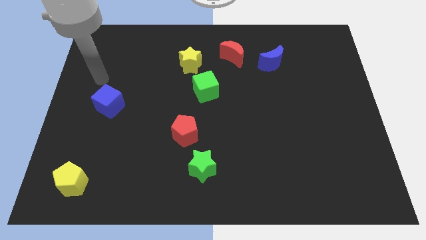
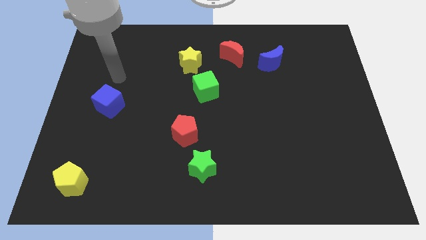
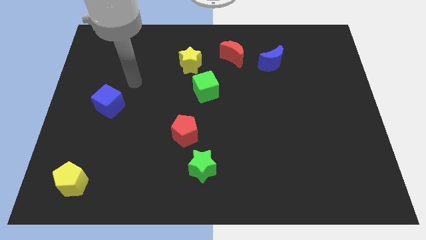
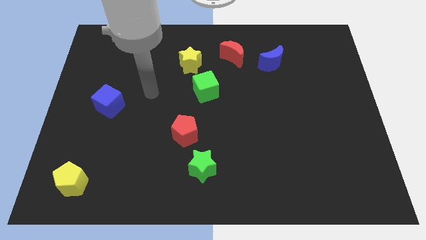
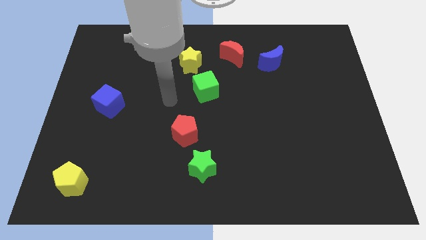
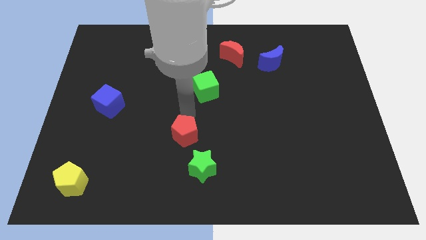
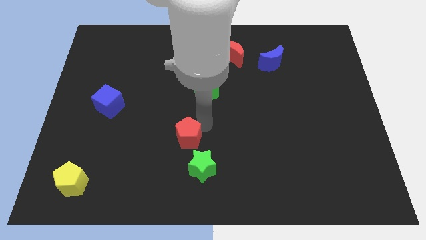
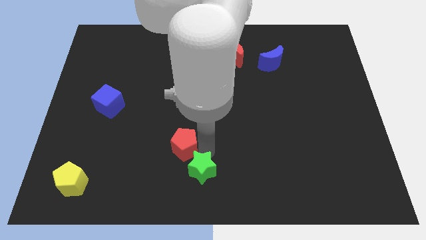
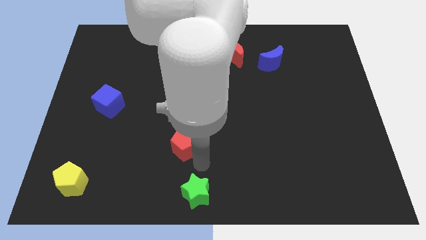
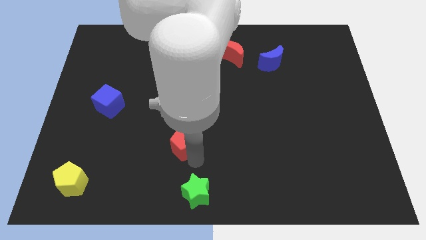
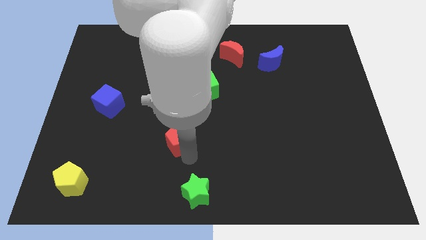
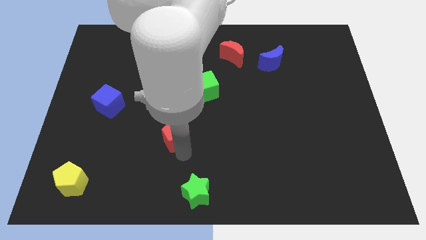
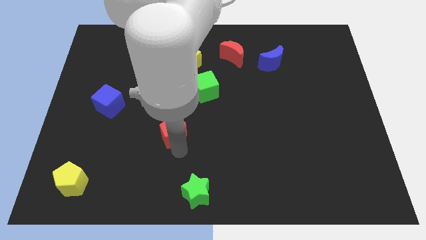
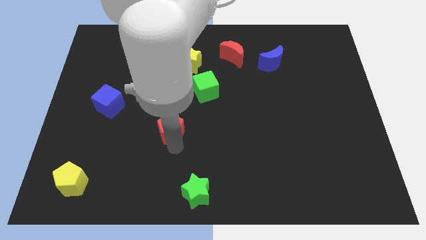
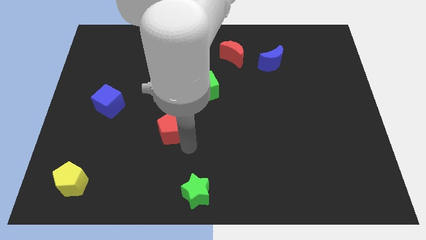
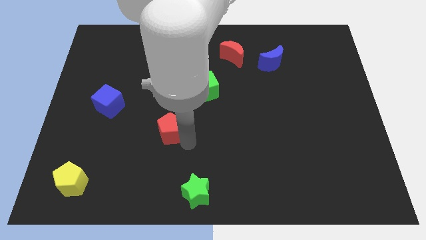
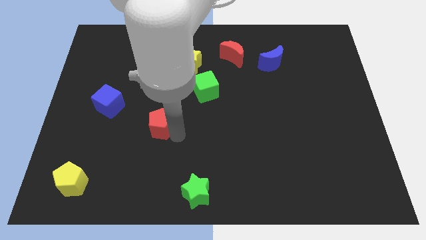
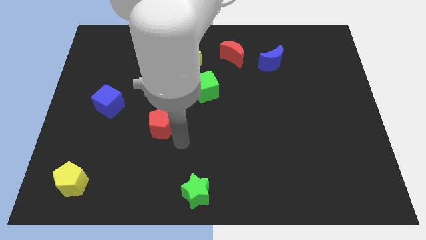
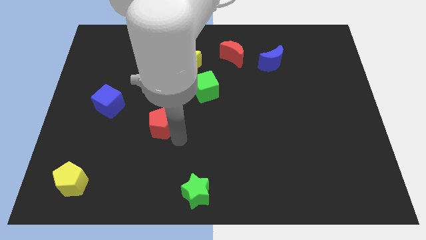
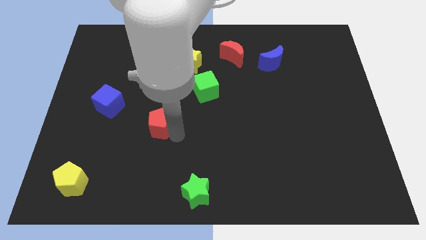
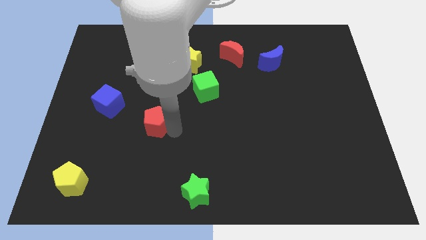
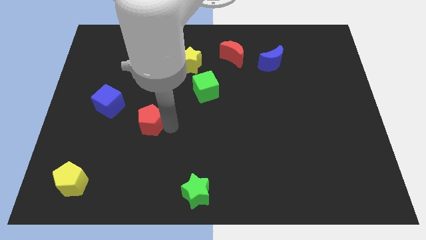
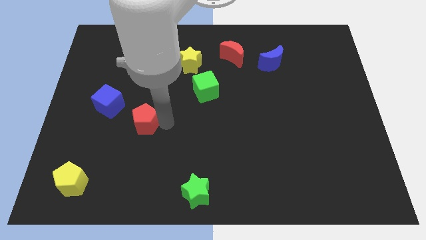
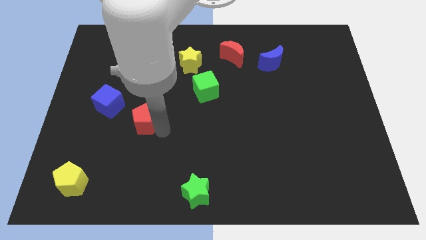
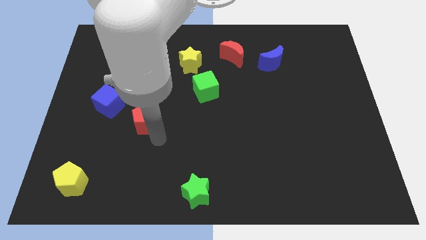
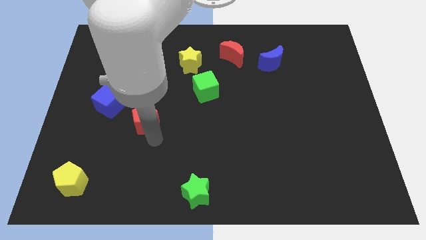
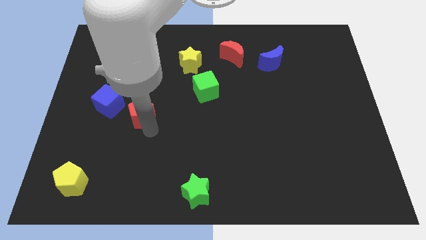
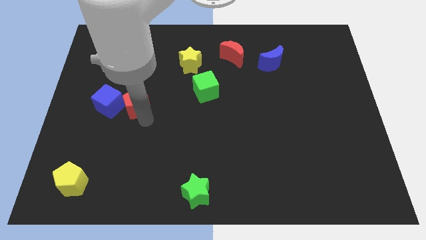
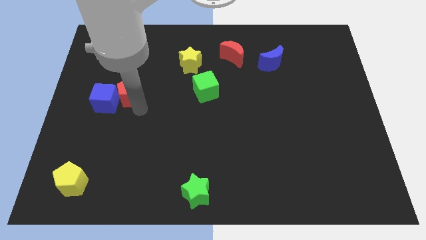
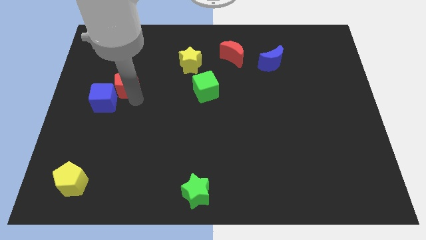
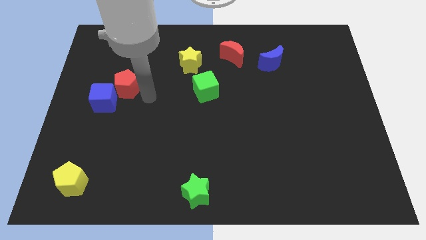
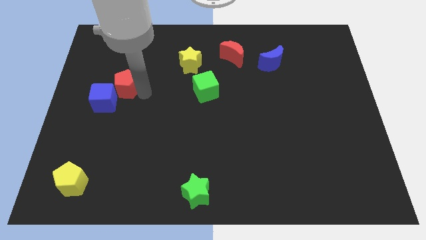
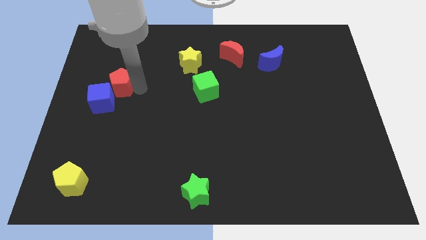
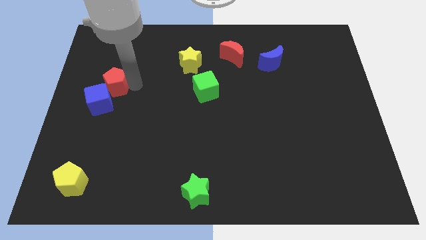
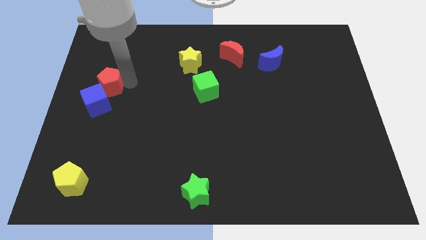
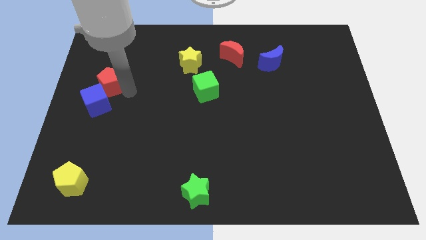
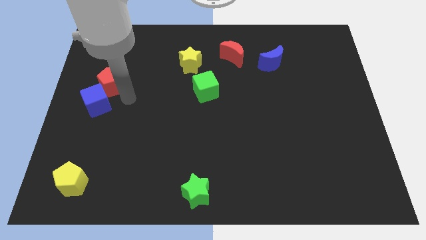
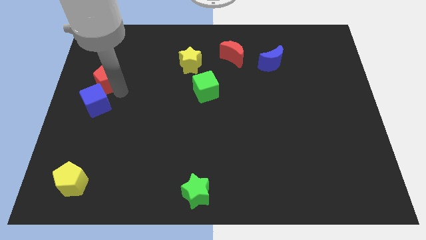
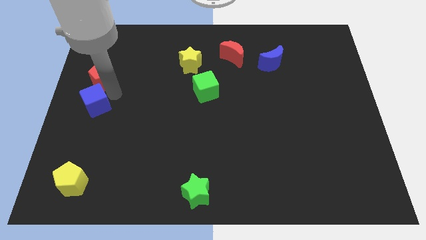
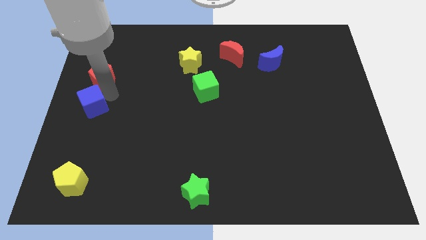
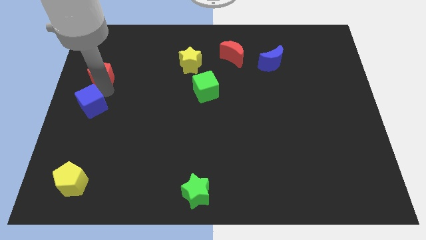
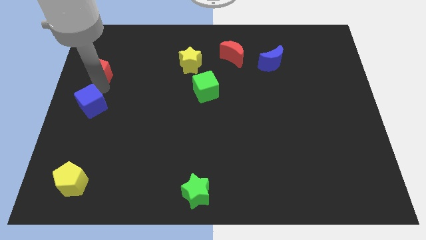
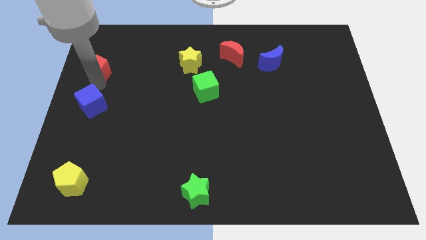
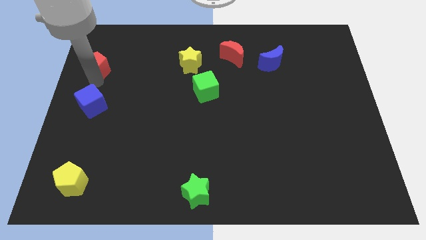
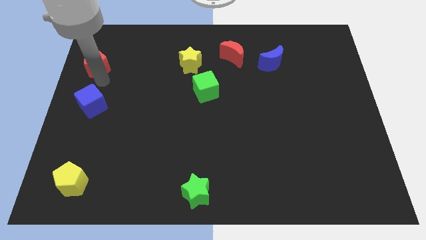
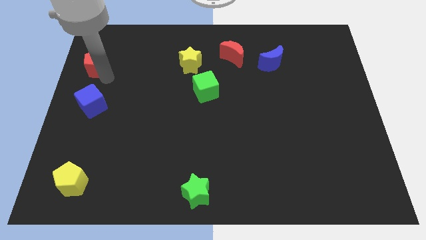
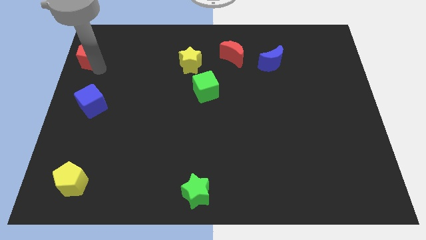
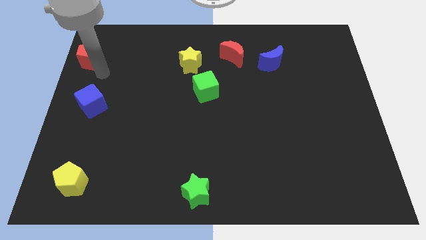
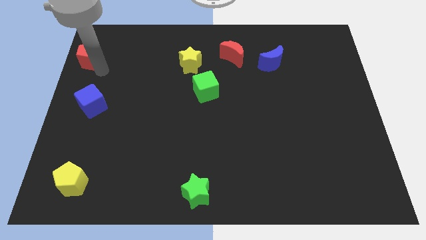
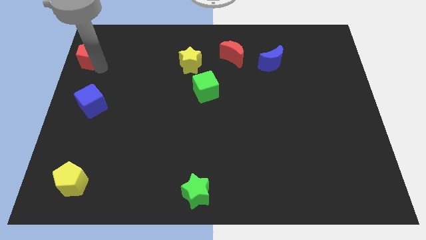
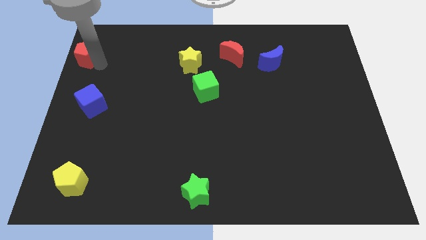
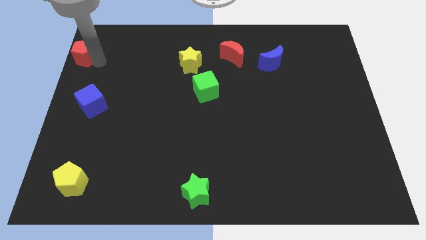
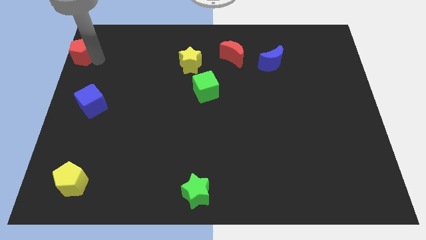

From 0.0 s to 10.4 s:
push the red pentagon to the top left corner

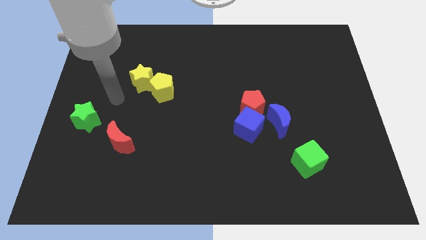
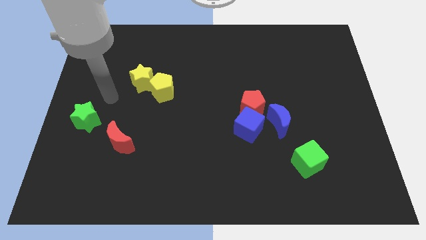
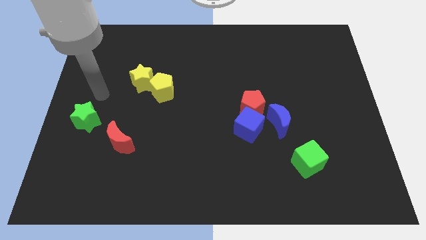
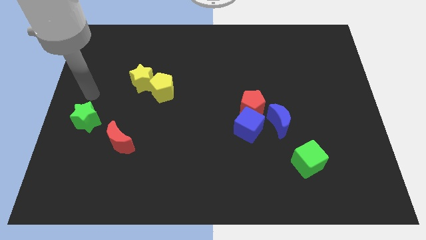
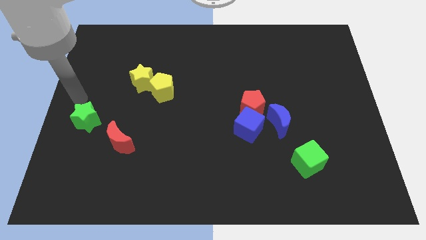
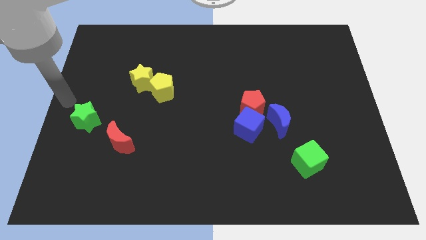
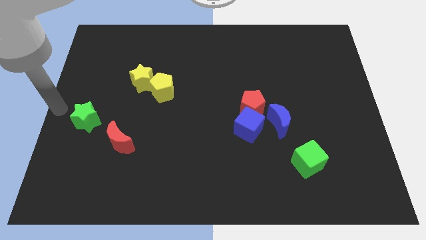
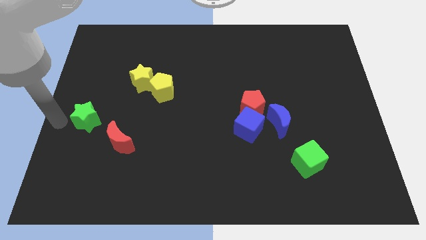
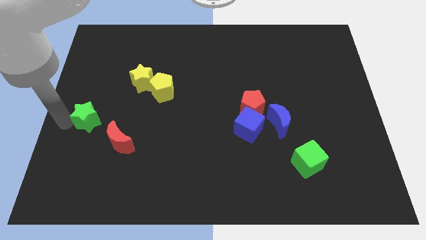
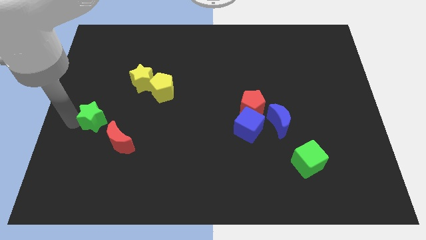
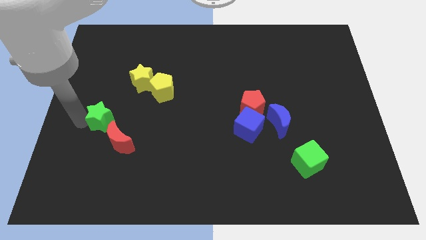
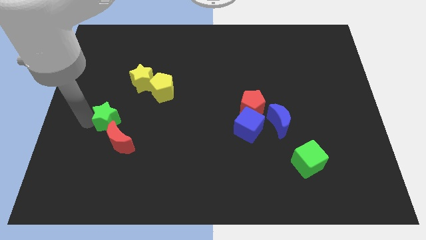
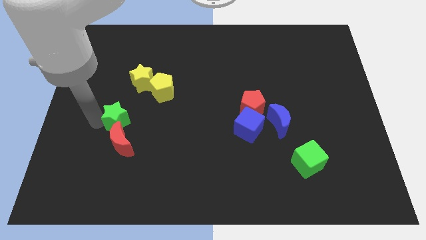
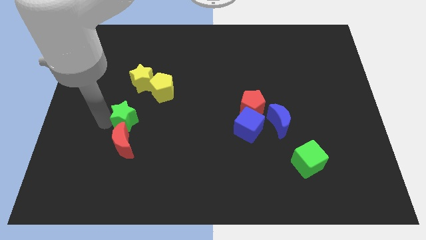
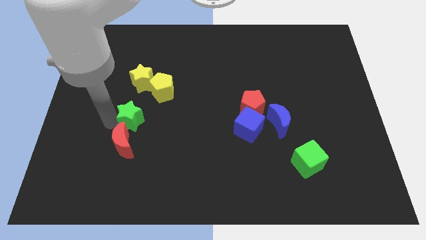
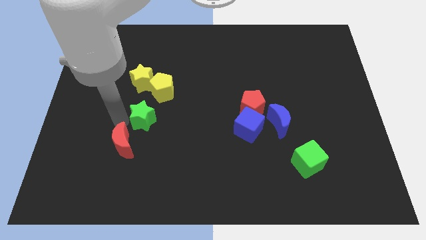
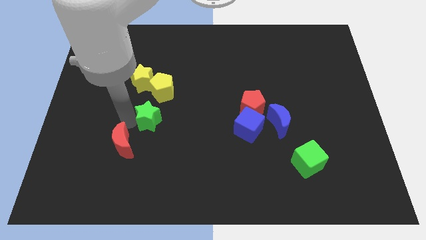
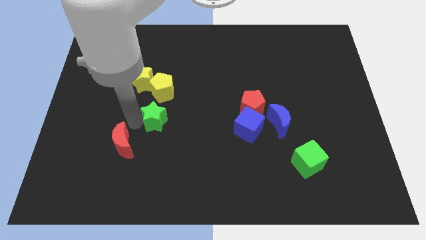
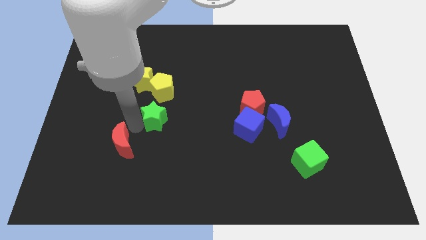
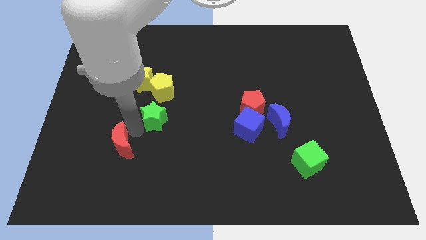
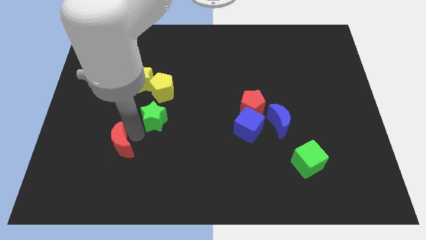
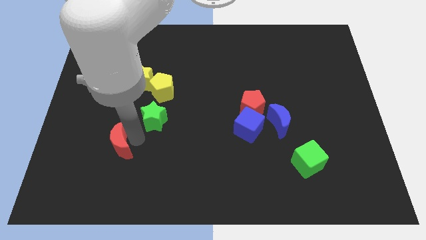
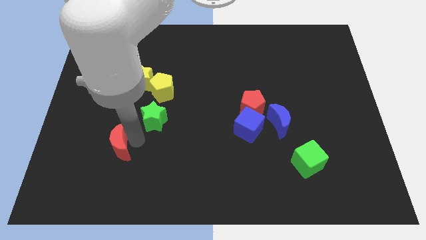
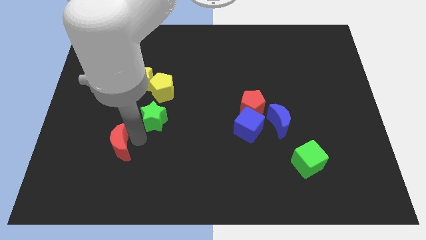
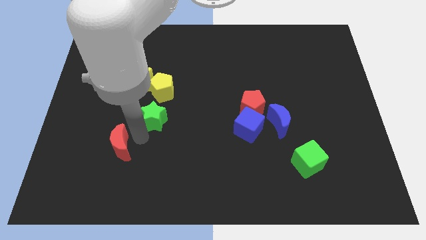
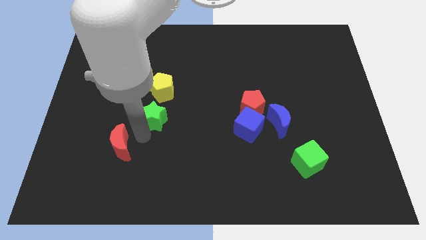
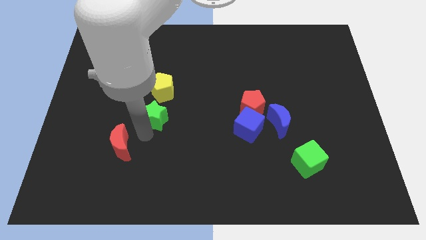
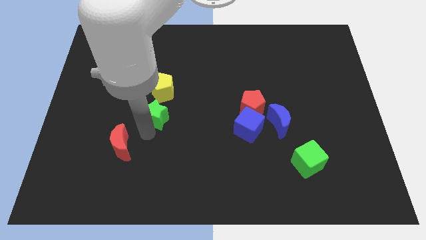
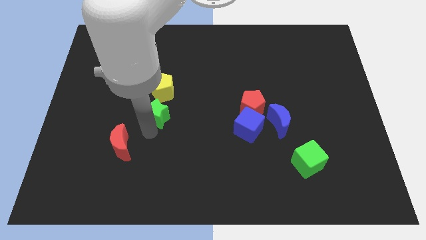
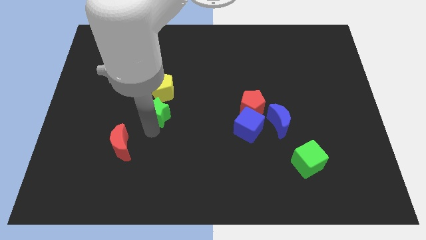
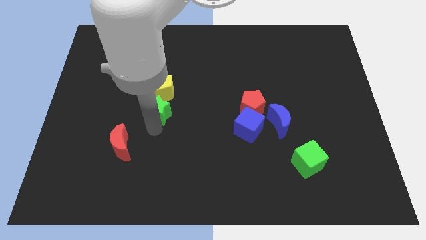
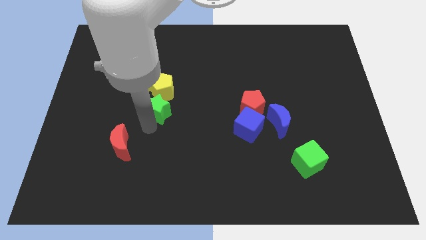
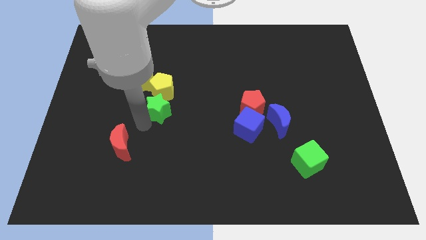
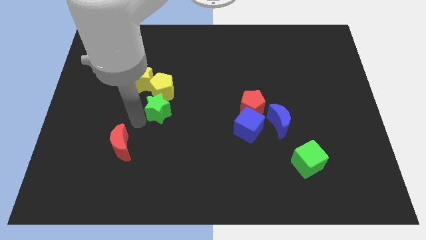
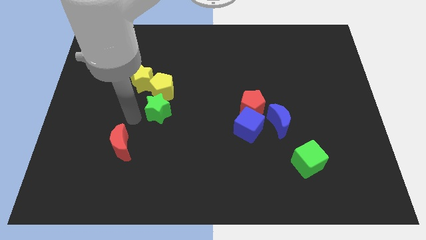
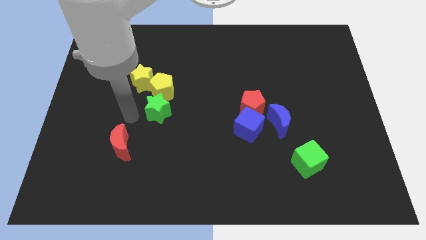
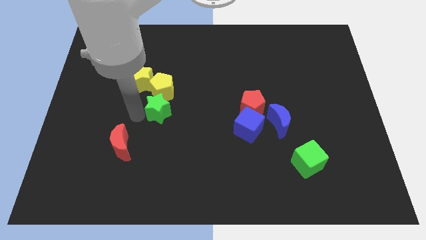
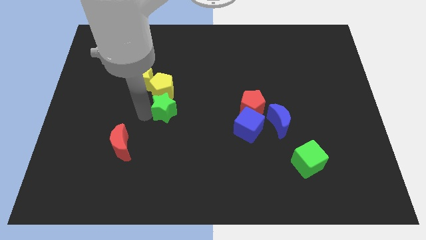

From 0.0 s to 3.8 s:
put the green star to the center
